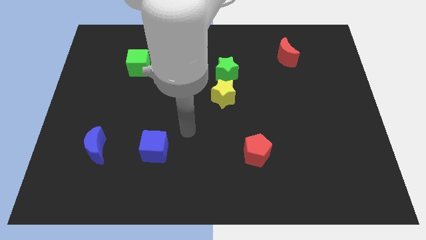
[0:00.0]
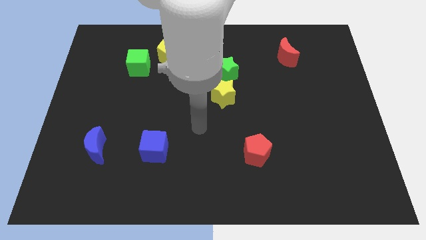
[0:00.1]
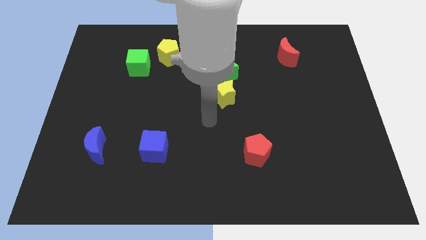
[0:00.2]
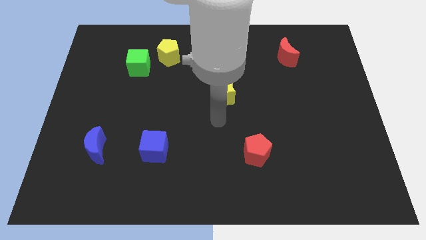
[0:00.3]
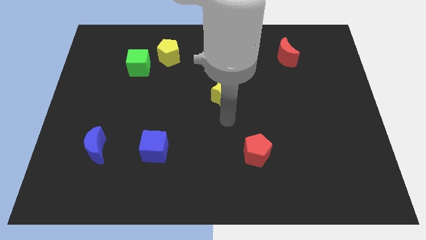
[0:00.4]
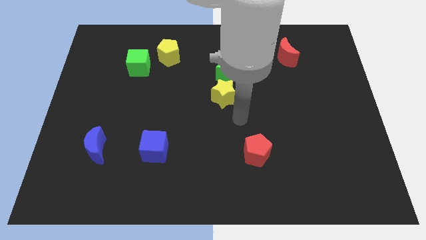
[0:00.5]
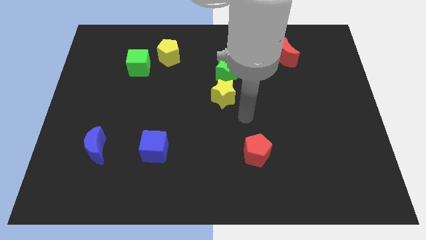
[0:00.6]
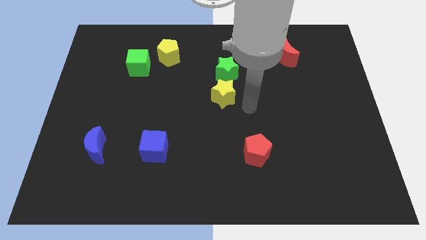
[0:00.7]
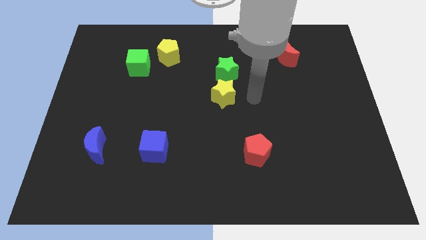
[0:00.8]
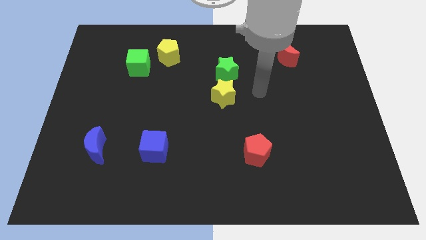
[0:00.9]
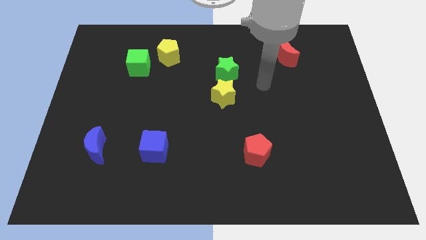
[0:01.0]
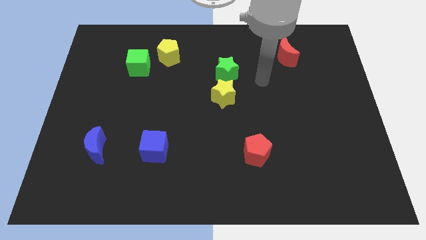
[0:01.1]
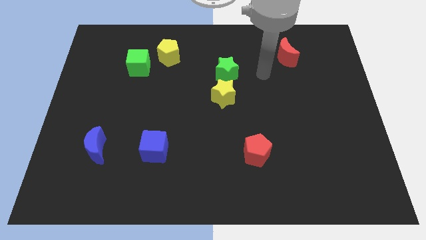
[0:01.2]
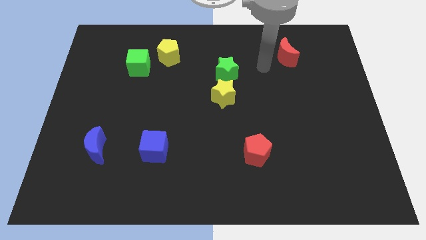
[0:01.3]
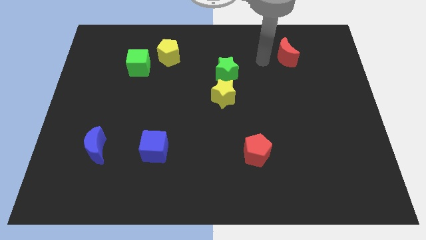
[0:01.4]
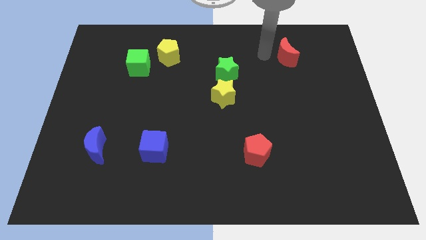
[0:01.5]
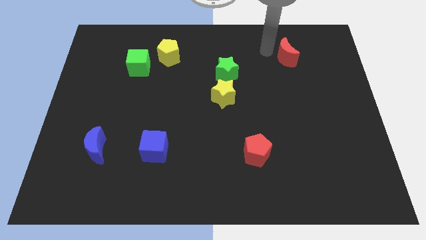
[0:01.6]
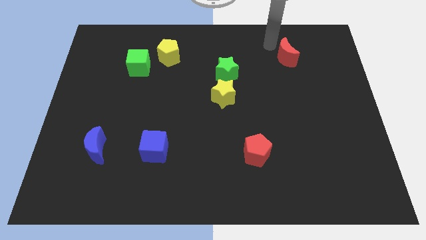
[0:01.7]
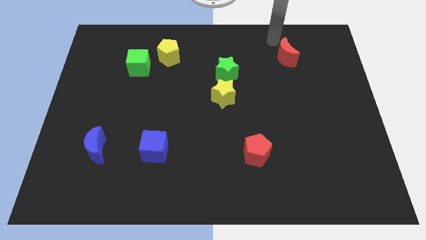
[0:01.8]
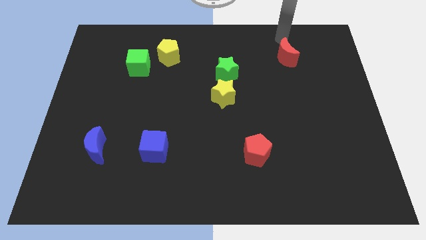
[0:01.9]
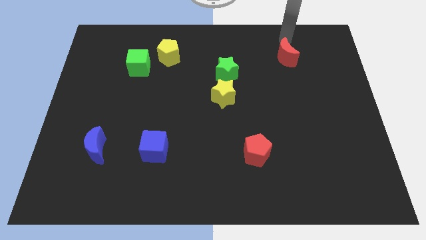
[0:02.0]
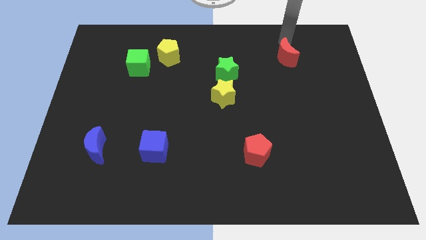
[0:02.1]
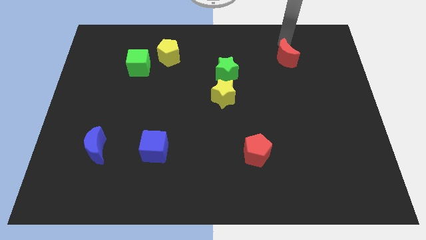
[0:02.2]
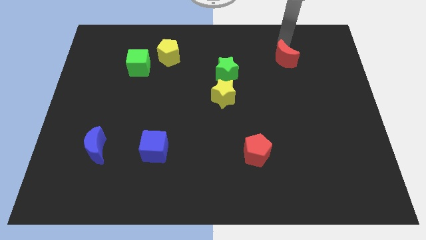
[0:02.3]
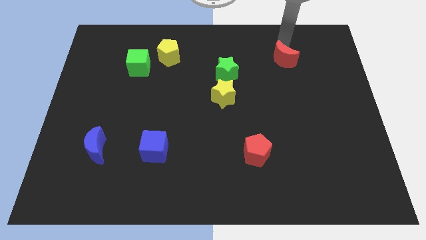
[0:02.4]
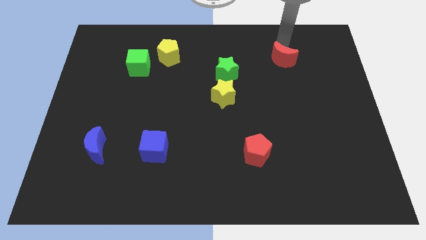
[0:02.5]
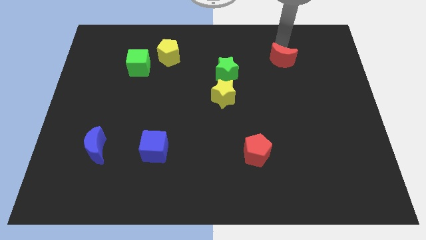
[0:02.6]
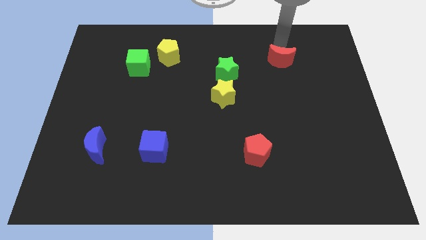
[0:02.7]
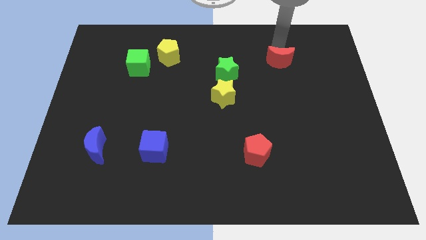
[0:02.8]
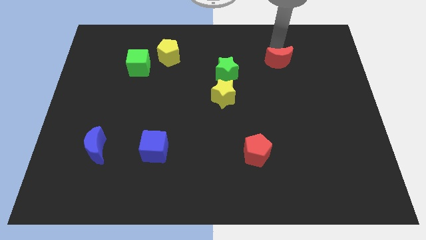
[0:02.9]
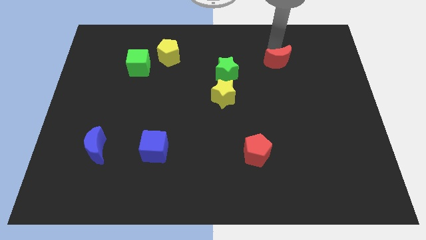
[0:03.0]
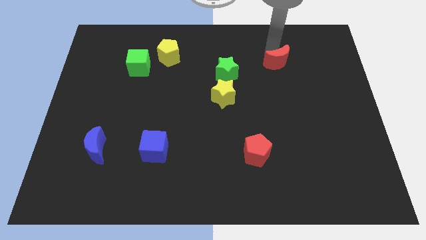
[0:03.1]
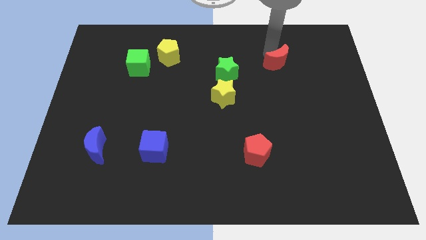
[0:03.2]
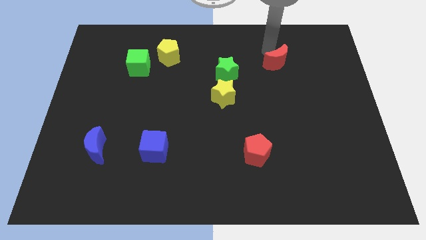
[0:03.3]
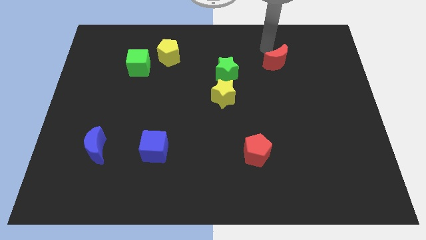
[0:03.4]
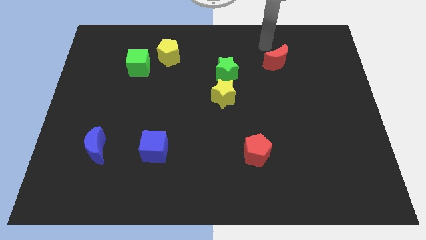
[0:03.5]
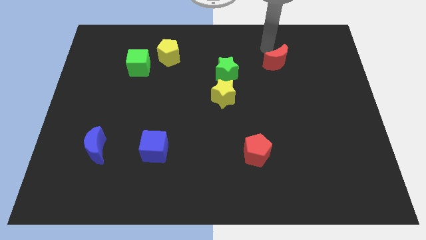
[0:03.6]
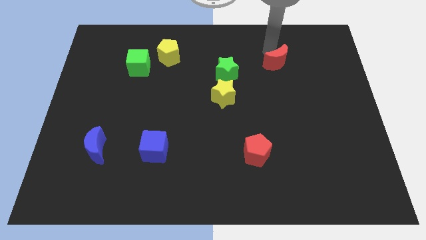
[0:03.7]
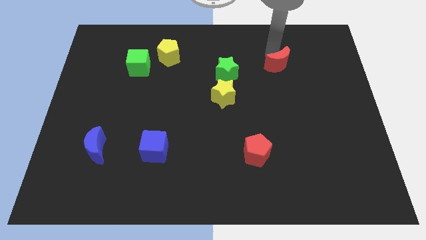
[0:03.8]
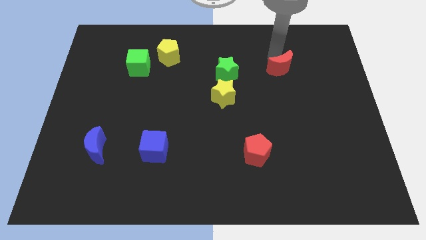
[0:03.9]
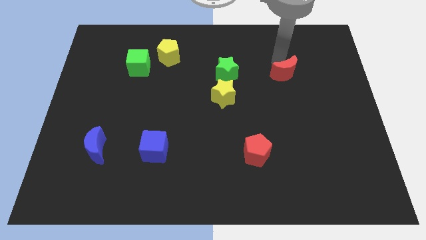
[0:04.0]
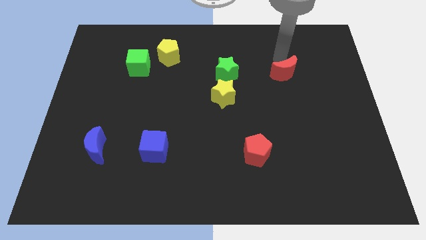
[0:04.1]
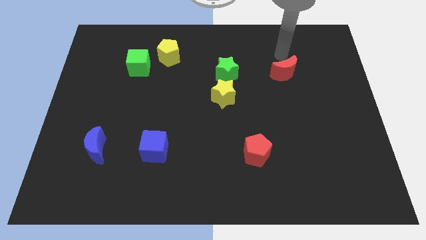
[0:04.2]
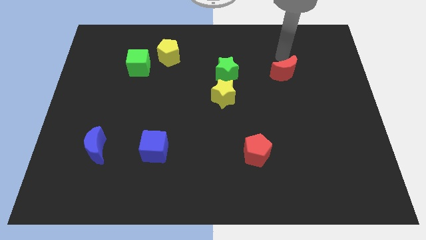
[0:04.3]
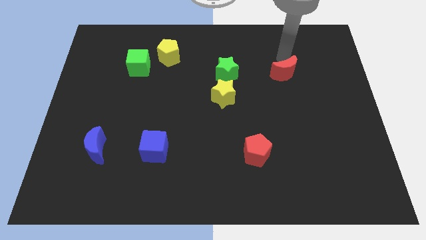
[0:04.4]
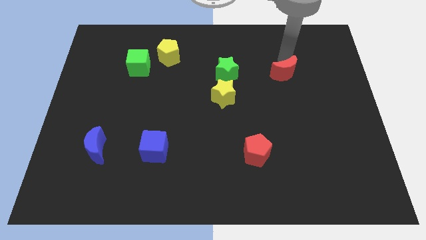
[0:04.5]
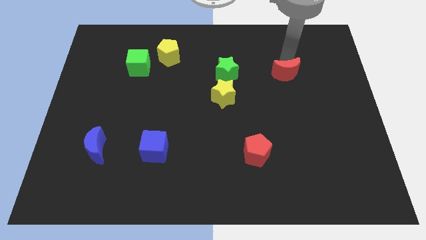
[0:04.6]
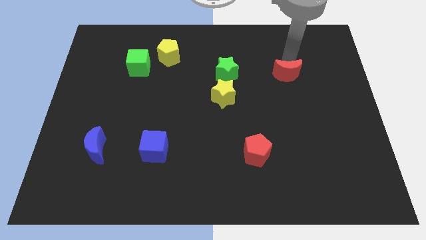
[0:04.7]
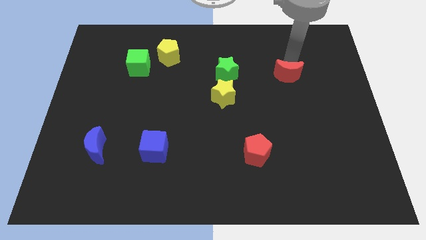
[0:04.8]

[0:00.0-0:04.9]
move the red moon downwards a little

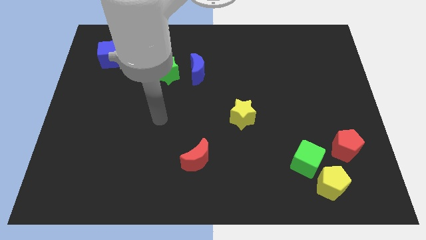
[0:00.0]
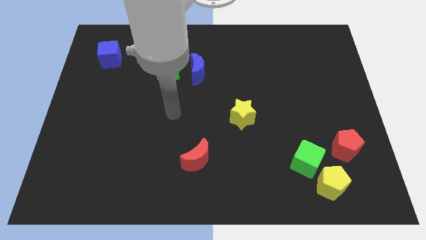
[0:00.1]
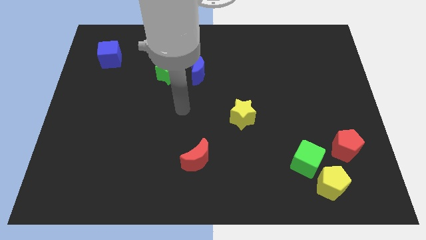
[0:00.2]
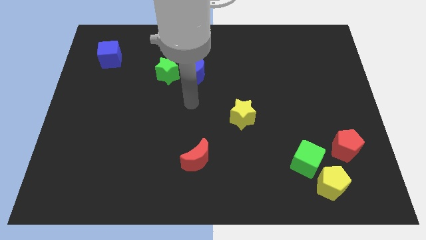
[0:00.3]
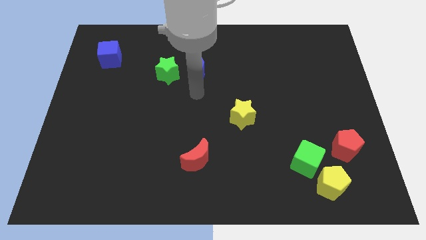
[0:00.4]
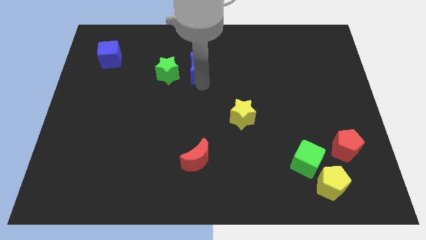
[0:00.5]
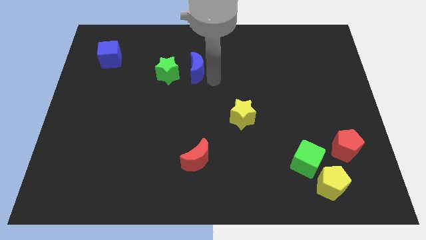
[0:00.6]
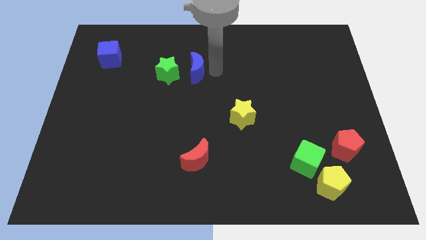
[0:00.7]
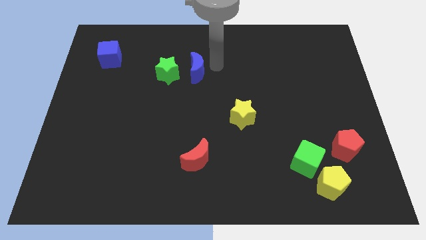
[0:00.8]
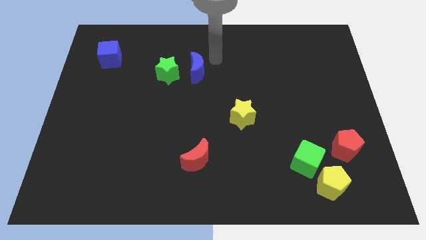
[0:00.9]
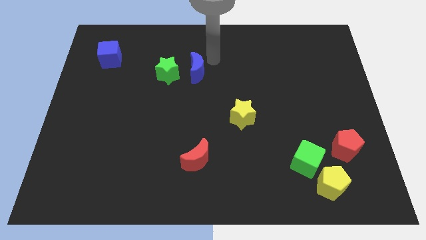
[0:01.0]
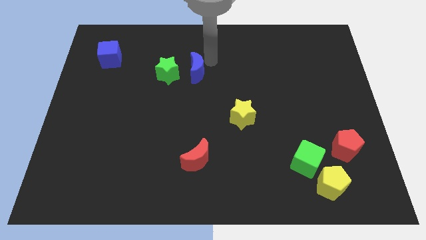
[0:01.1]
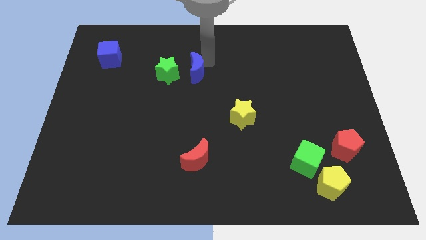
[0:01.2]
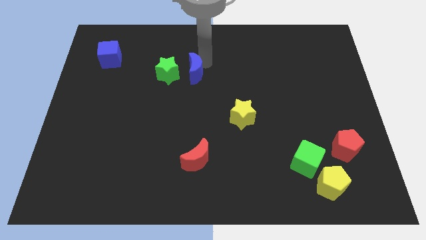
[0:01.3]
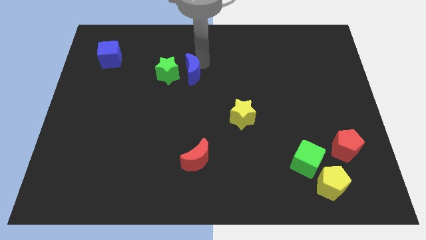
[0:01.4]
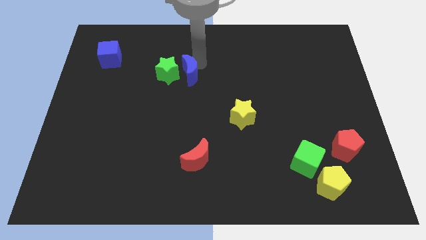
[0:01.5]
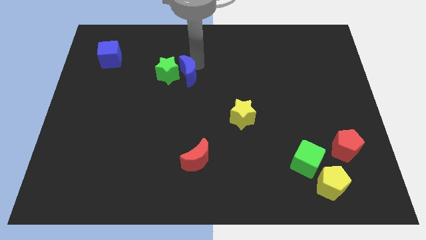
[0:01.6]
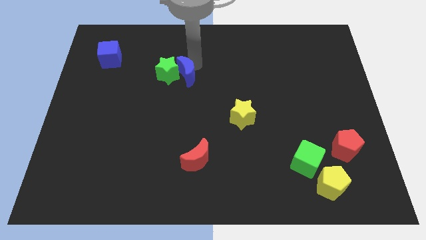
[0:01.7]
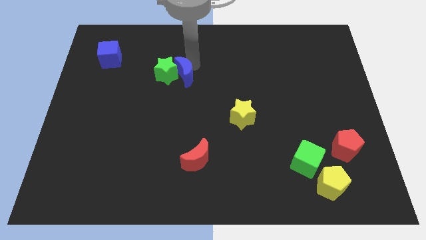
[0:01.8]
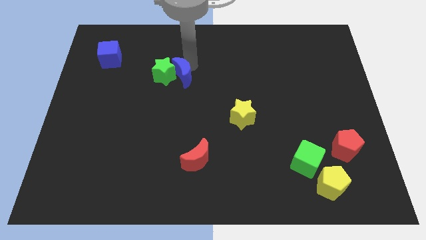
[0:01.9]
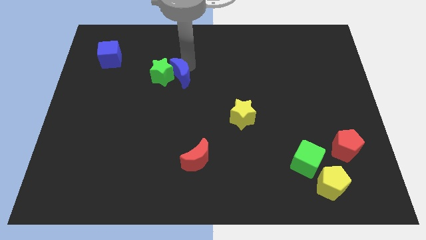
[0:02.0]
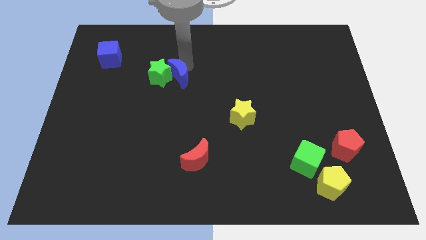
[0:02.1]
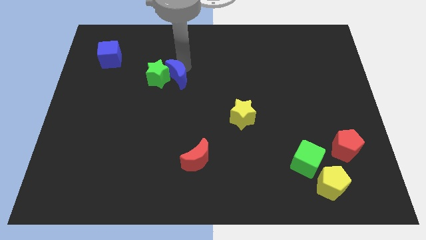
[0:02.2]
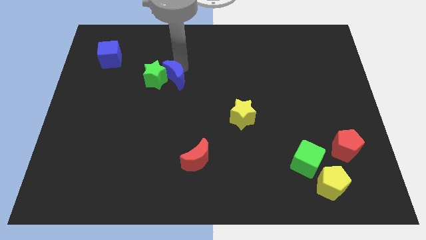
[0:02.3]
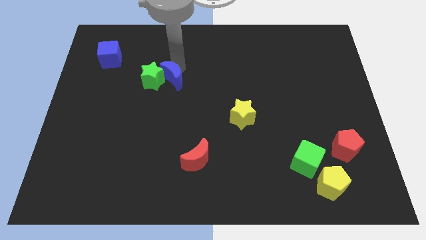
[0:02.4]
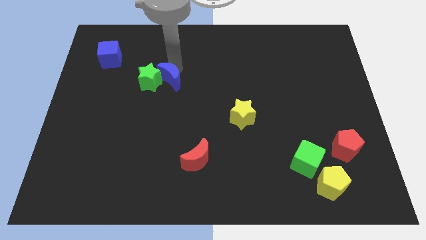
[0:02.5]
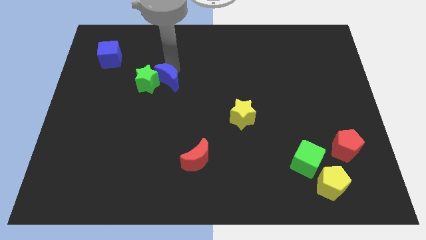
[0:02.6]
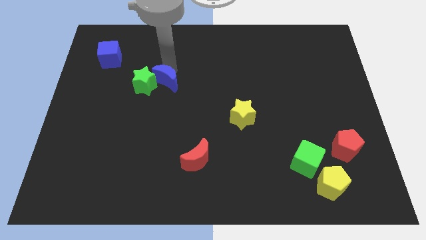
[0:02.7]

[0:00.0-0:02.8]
push the blue moon a bit downwards and to the left

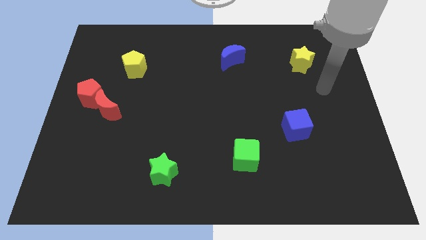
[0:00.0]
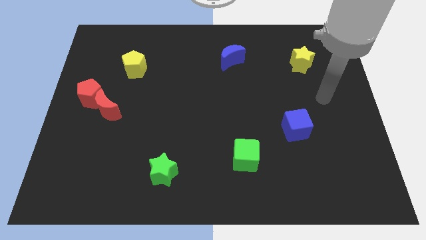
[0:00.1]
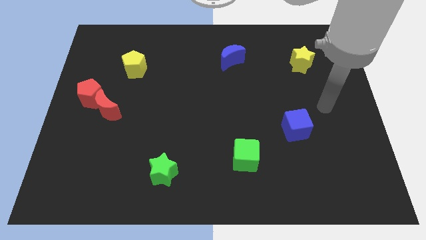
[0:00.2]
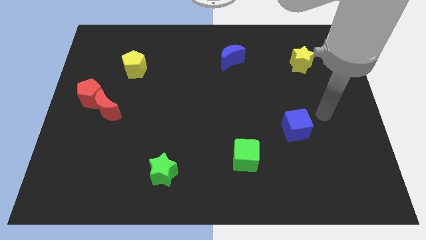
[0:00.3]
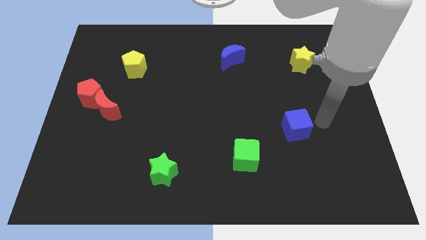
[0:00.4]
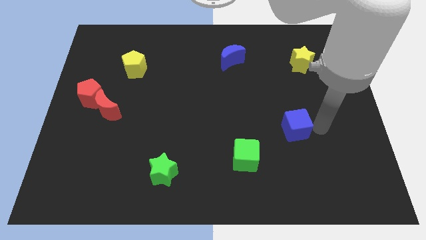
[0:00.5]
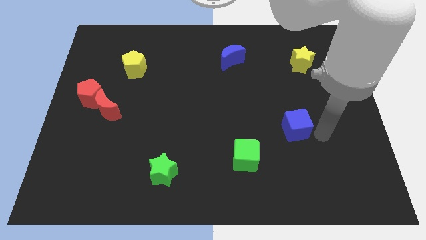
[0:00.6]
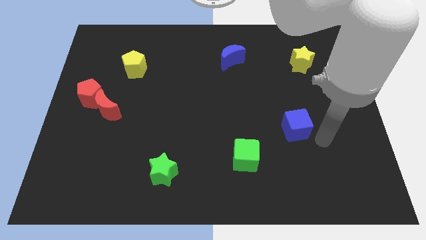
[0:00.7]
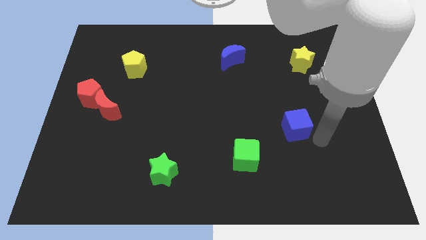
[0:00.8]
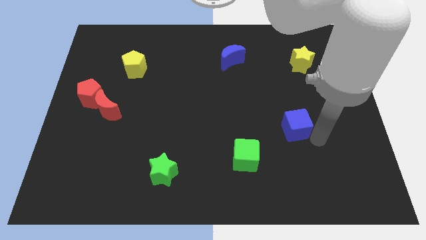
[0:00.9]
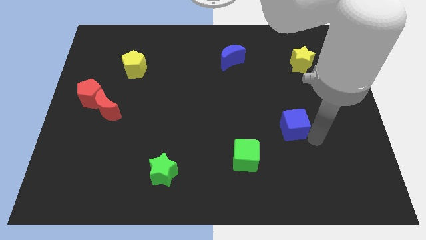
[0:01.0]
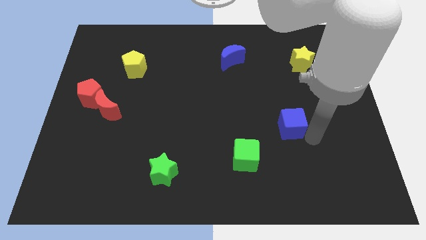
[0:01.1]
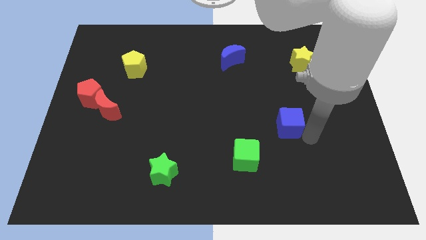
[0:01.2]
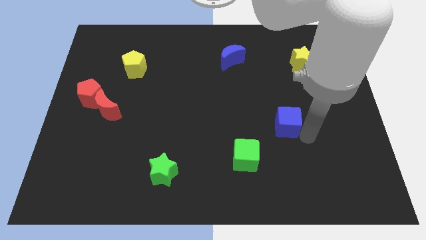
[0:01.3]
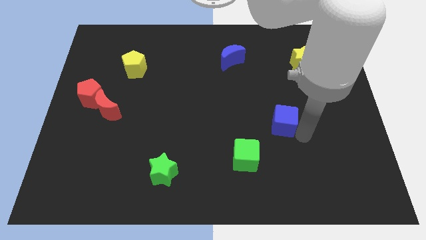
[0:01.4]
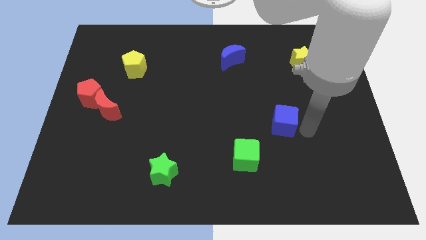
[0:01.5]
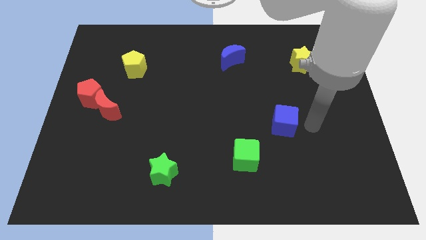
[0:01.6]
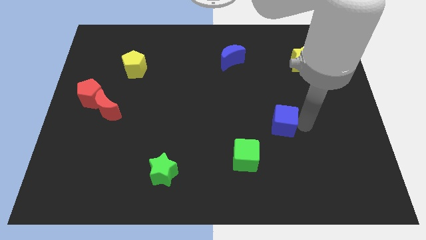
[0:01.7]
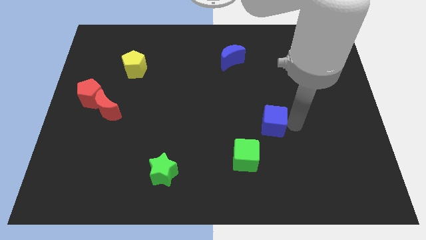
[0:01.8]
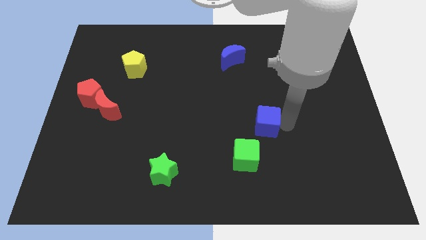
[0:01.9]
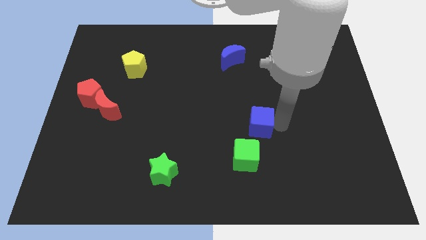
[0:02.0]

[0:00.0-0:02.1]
slightly move the blue cube to the left
